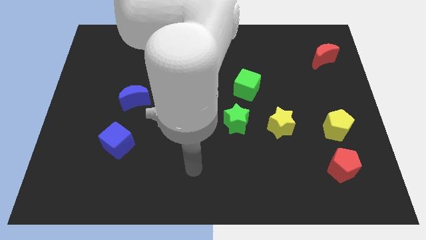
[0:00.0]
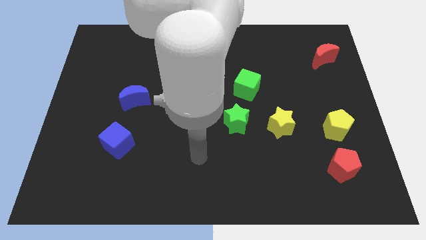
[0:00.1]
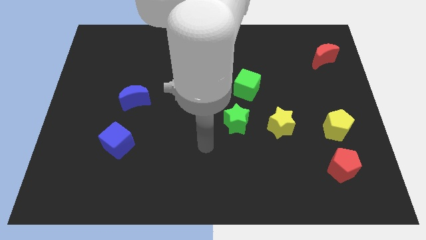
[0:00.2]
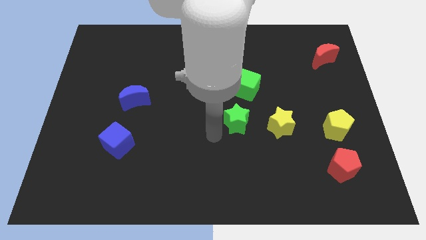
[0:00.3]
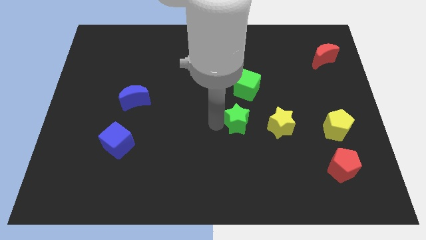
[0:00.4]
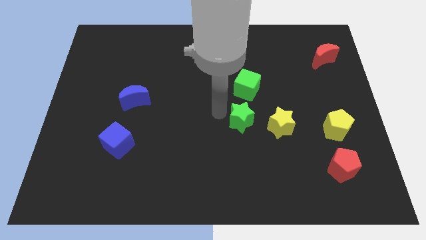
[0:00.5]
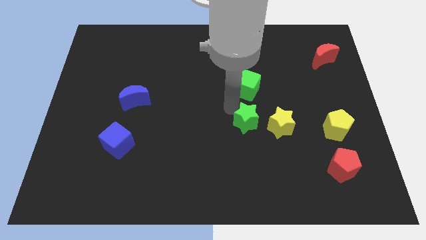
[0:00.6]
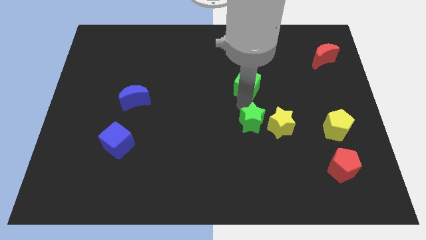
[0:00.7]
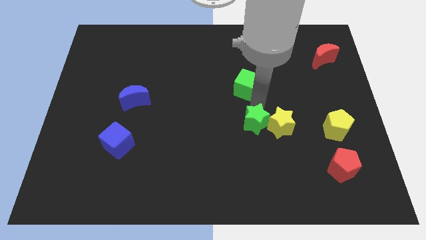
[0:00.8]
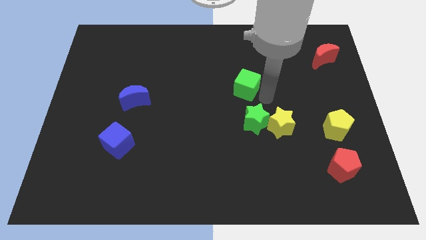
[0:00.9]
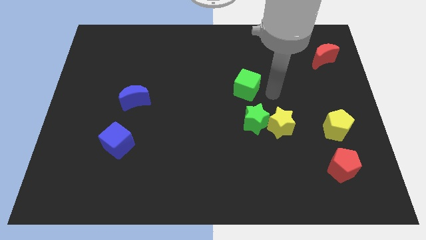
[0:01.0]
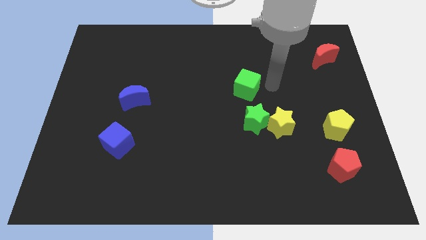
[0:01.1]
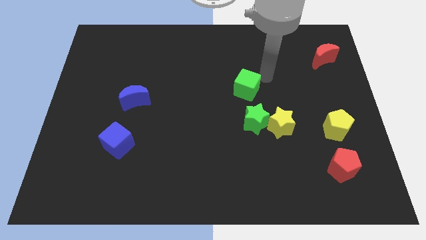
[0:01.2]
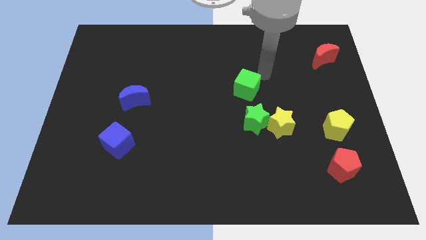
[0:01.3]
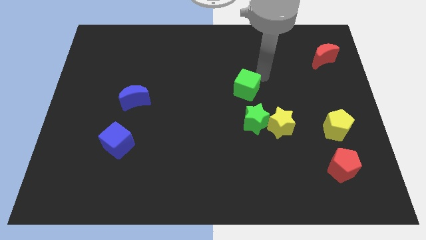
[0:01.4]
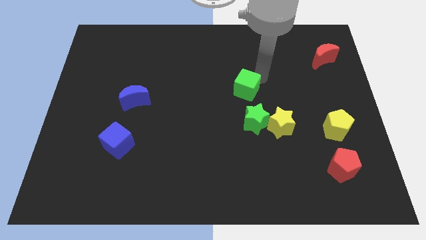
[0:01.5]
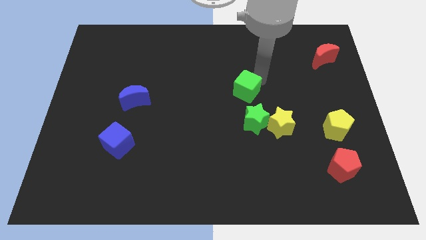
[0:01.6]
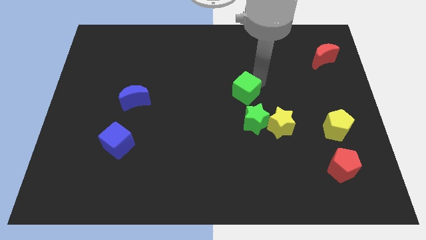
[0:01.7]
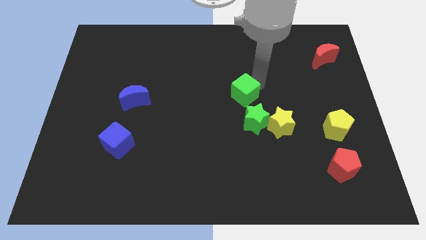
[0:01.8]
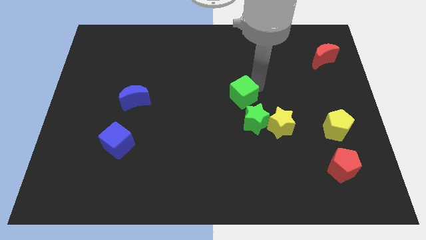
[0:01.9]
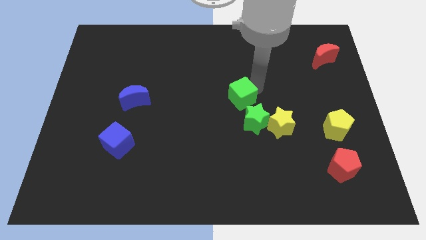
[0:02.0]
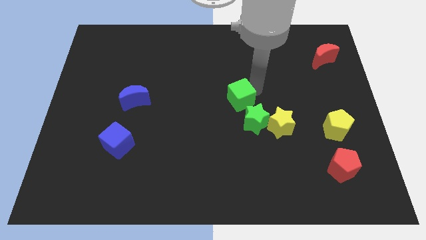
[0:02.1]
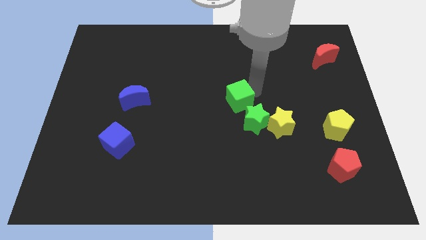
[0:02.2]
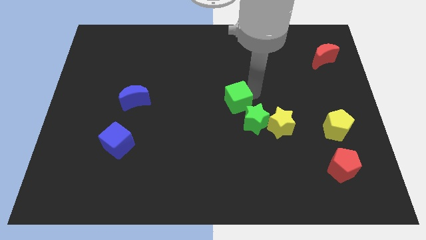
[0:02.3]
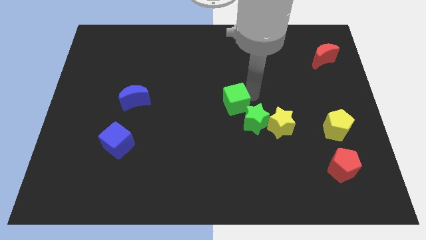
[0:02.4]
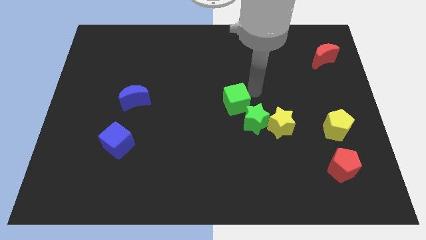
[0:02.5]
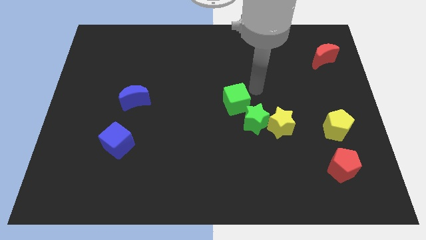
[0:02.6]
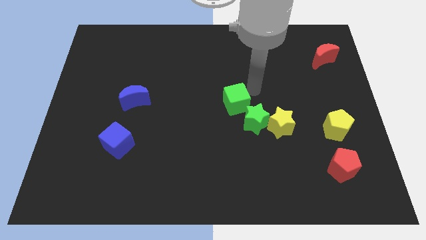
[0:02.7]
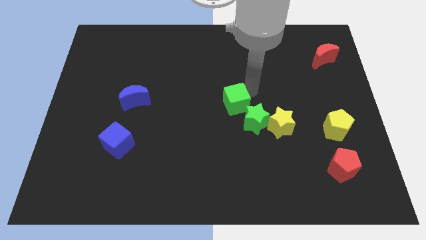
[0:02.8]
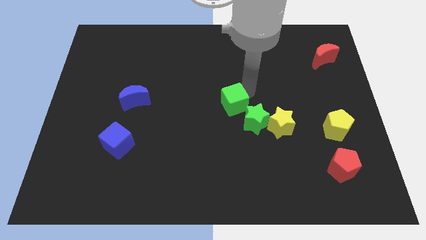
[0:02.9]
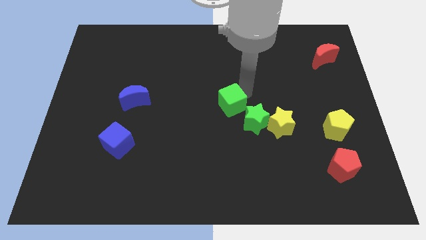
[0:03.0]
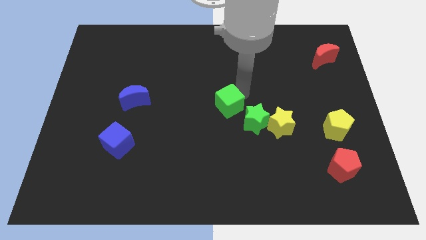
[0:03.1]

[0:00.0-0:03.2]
slightly slide the green cube down and left

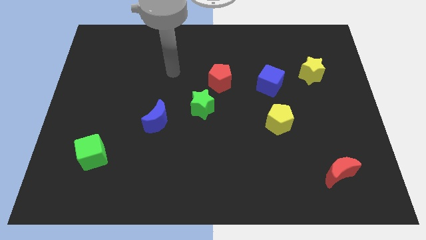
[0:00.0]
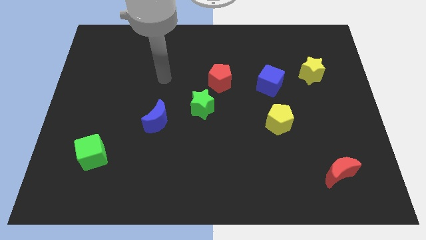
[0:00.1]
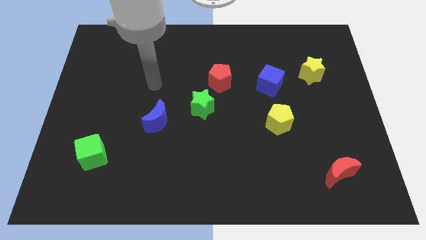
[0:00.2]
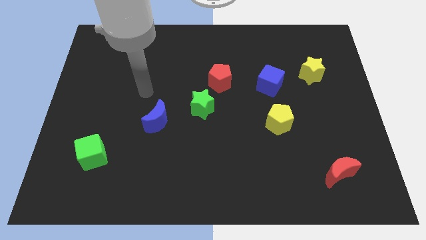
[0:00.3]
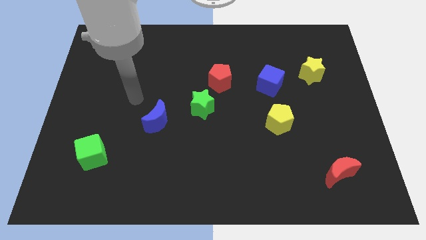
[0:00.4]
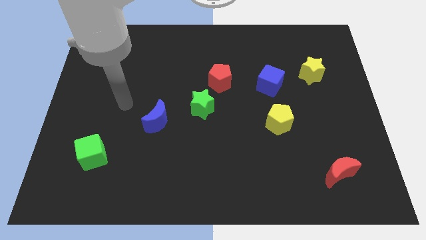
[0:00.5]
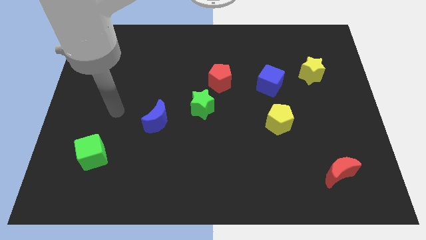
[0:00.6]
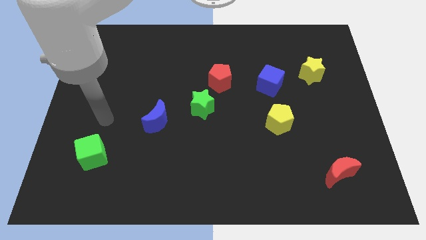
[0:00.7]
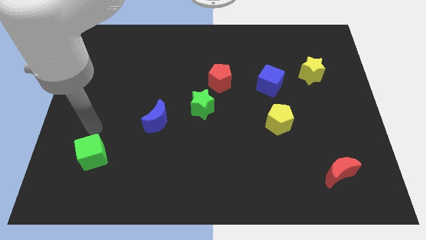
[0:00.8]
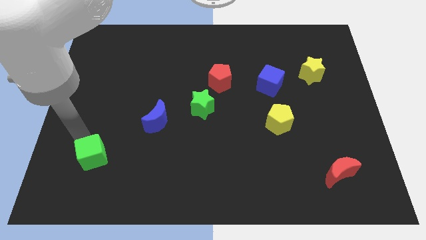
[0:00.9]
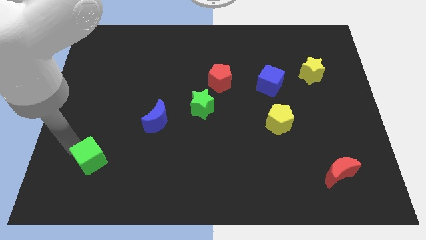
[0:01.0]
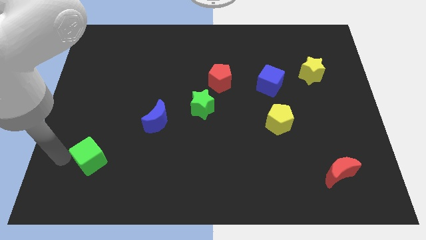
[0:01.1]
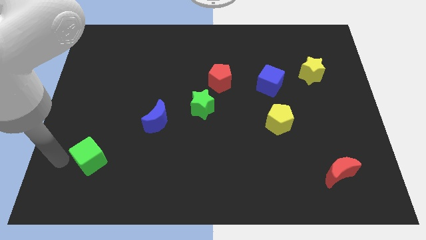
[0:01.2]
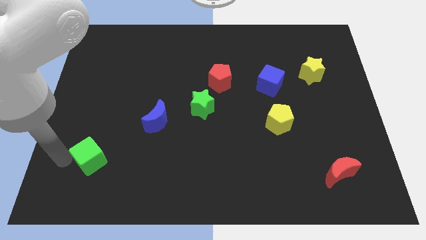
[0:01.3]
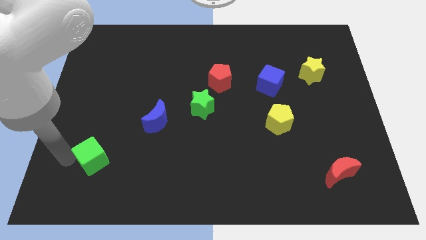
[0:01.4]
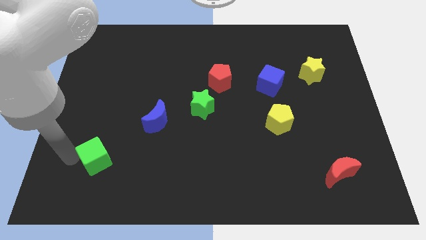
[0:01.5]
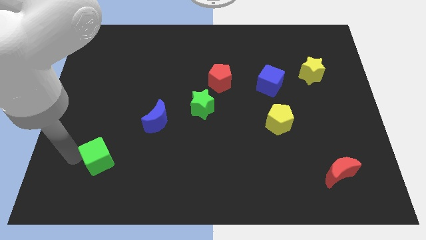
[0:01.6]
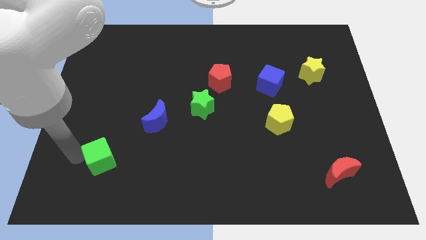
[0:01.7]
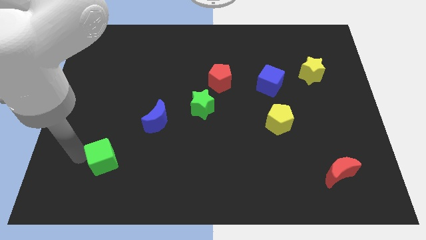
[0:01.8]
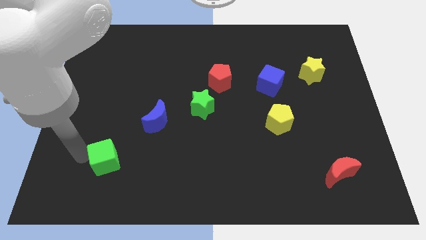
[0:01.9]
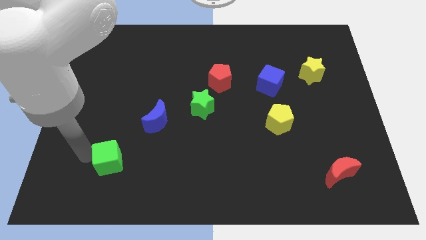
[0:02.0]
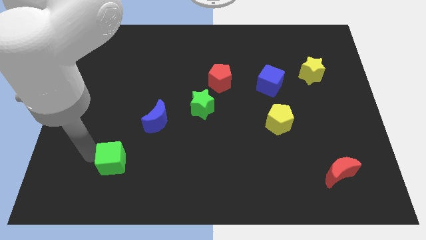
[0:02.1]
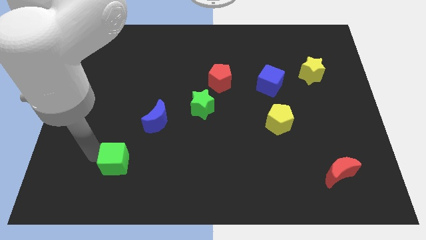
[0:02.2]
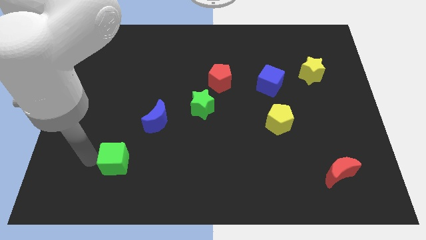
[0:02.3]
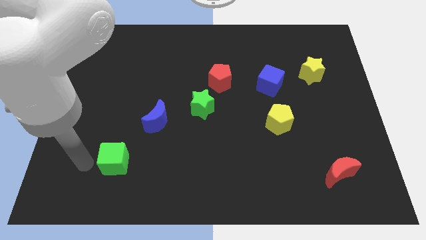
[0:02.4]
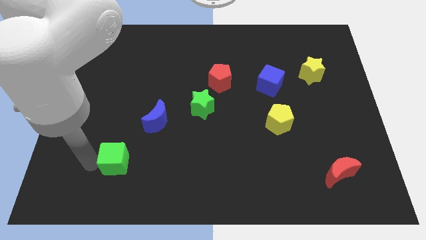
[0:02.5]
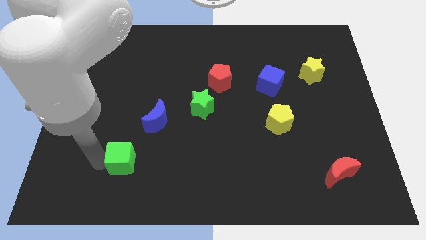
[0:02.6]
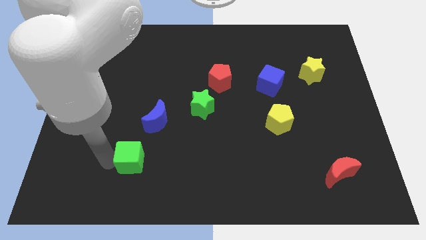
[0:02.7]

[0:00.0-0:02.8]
slightly push the green cube right

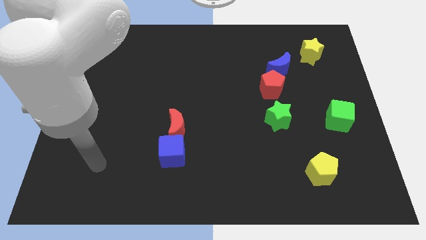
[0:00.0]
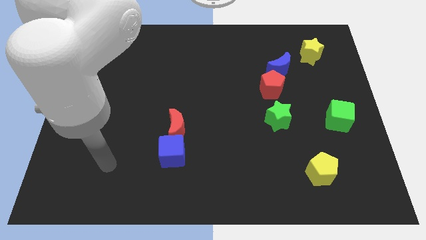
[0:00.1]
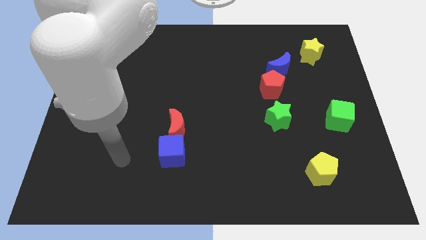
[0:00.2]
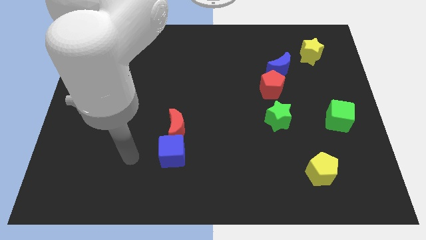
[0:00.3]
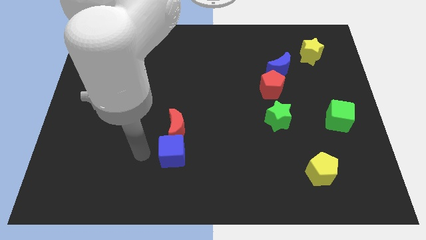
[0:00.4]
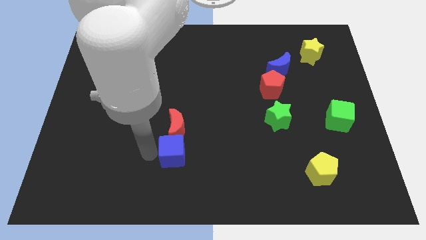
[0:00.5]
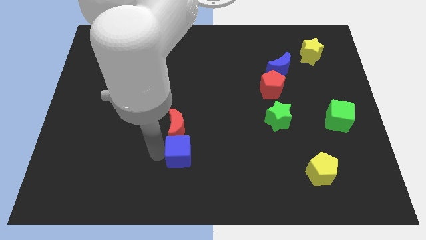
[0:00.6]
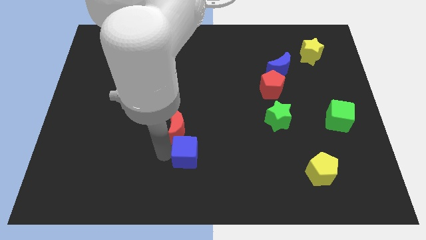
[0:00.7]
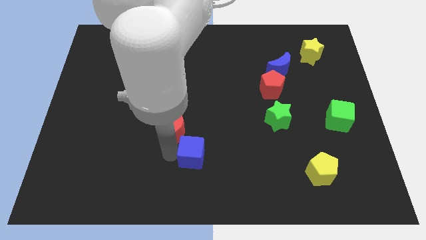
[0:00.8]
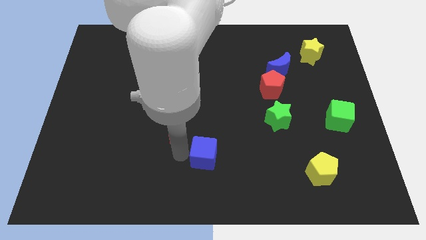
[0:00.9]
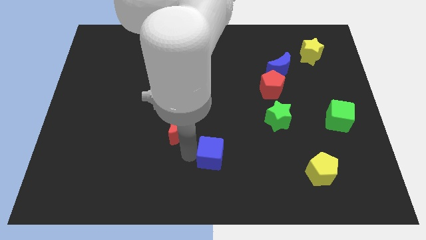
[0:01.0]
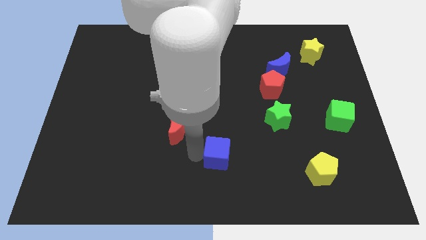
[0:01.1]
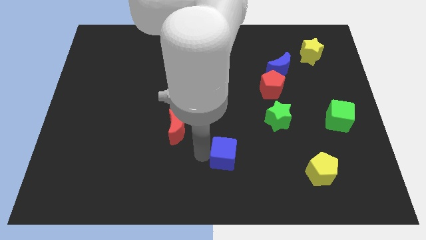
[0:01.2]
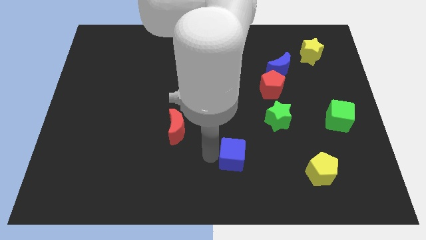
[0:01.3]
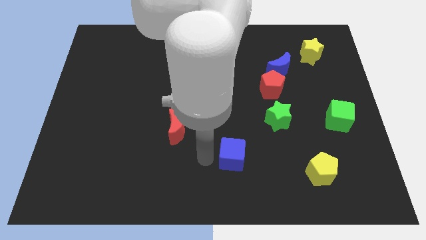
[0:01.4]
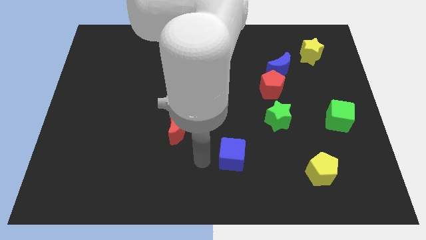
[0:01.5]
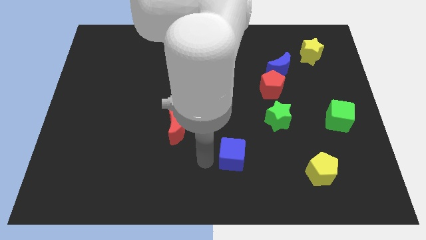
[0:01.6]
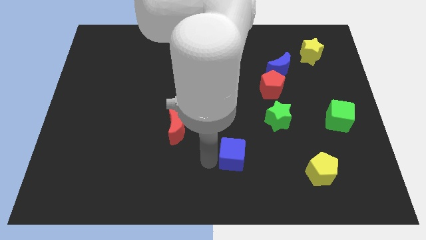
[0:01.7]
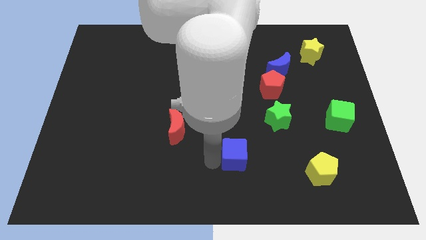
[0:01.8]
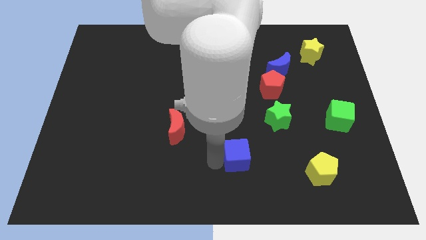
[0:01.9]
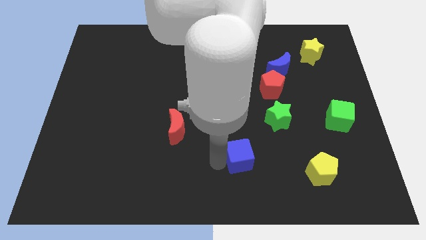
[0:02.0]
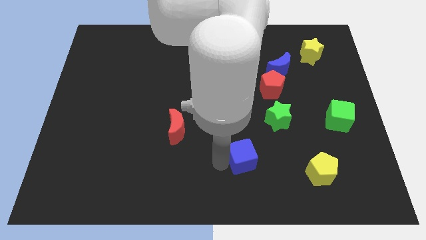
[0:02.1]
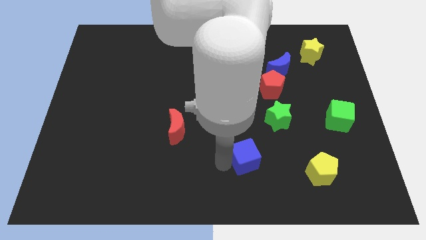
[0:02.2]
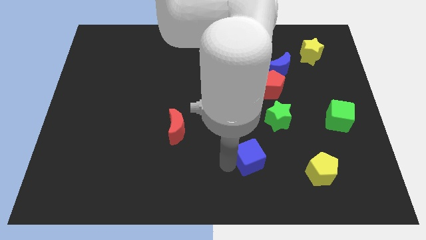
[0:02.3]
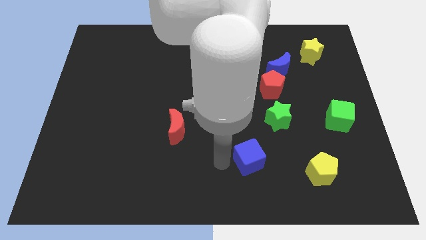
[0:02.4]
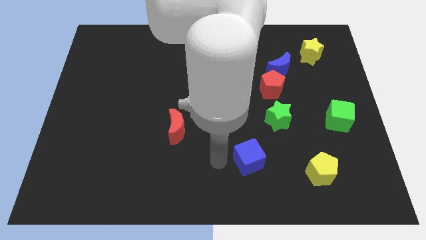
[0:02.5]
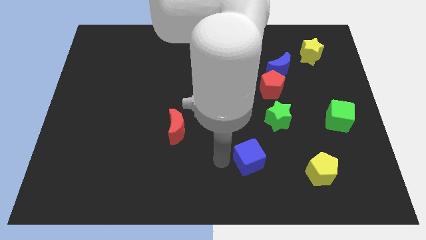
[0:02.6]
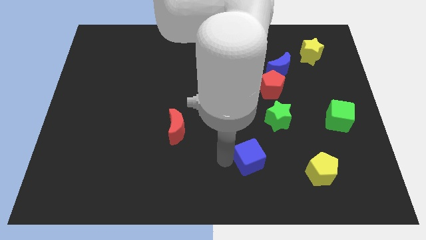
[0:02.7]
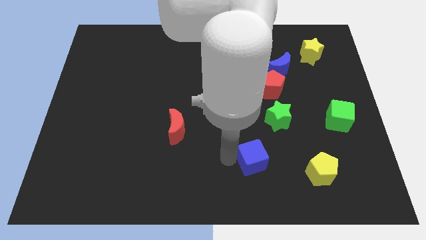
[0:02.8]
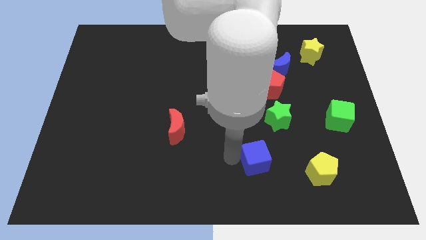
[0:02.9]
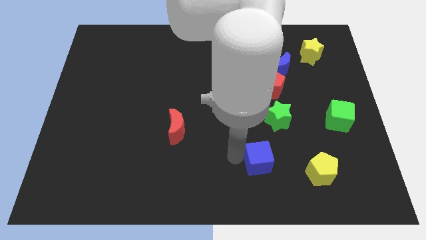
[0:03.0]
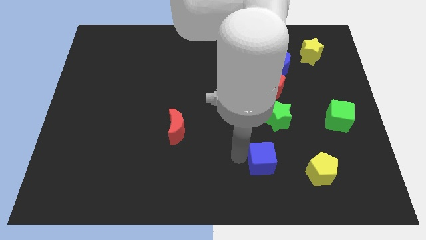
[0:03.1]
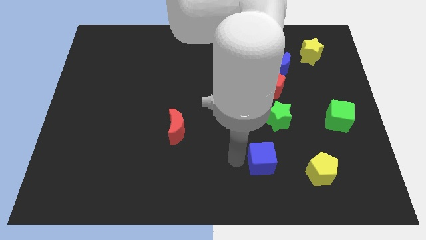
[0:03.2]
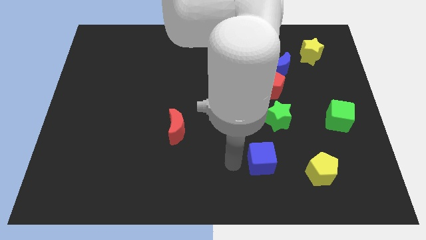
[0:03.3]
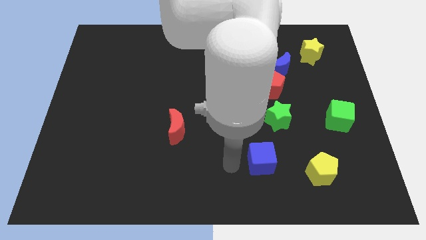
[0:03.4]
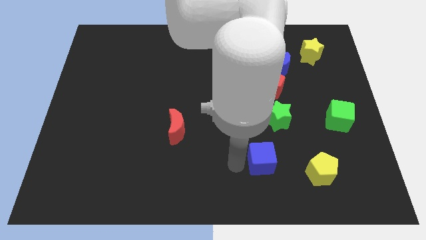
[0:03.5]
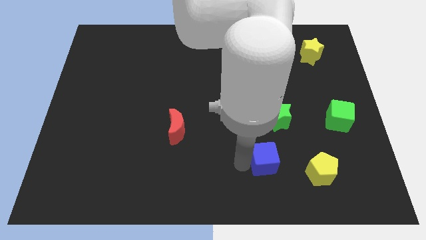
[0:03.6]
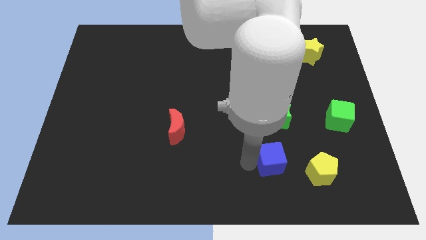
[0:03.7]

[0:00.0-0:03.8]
slide the blue cube to the right
